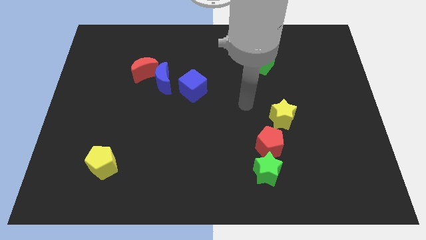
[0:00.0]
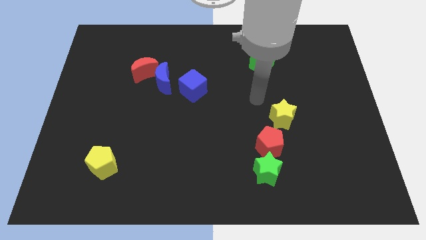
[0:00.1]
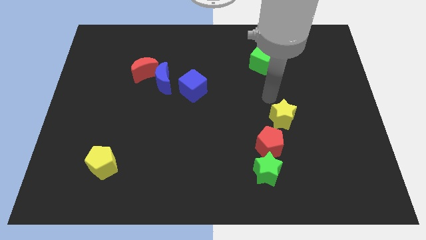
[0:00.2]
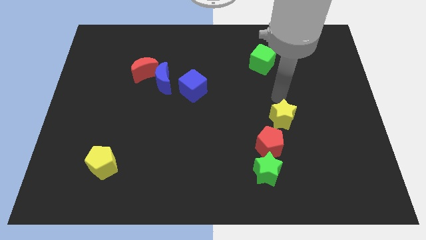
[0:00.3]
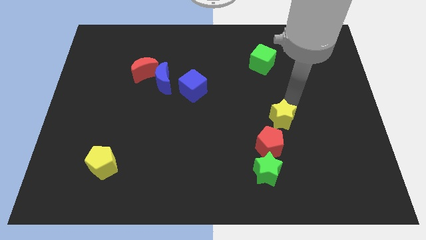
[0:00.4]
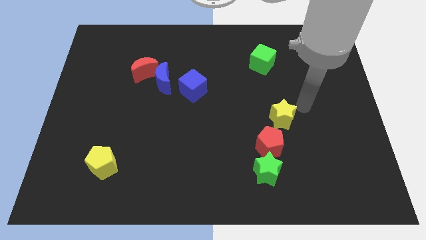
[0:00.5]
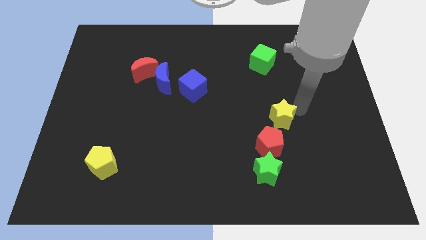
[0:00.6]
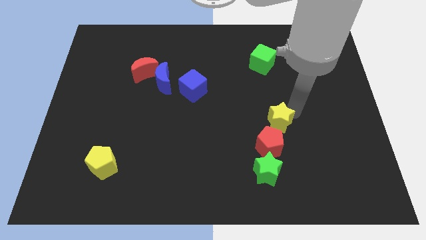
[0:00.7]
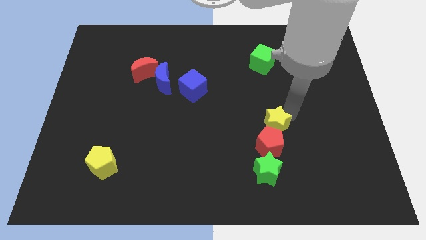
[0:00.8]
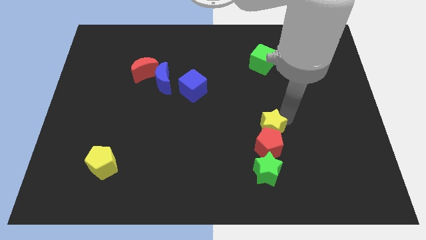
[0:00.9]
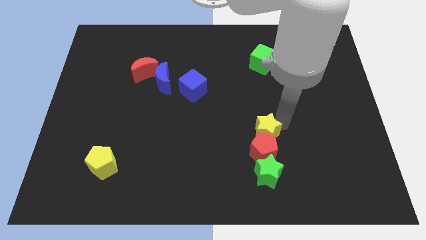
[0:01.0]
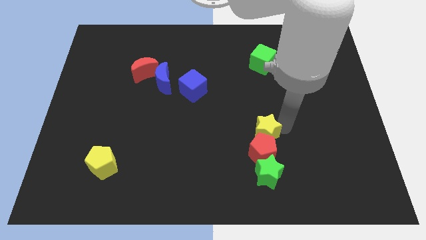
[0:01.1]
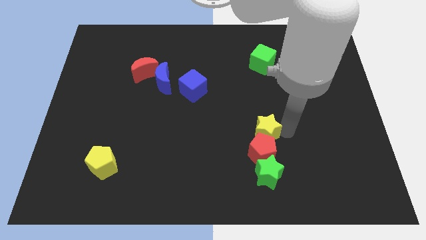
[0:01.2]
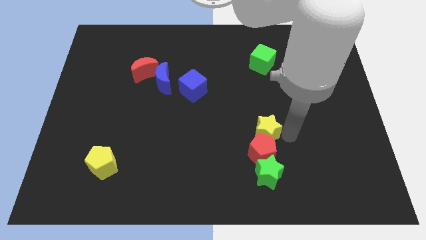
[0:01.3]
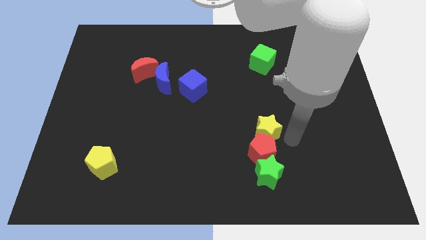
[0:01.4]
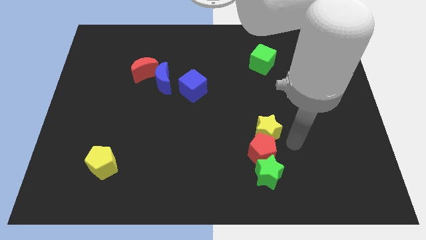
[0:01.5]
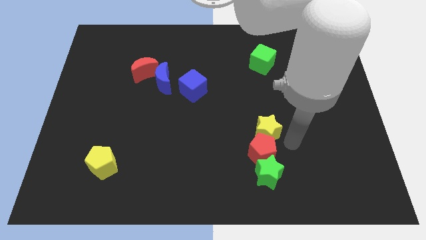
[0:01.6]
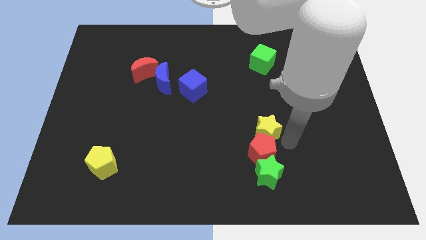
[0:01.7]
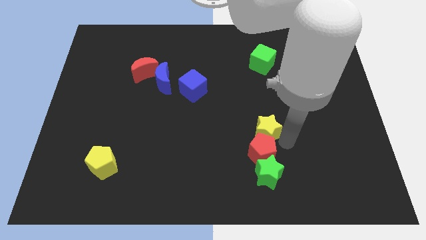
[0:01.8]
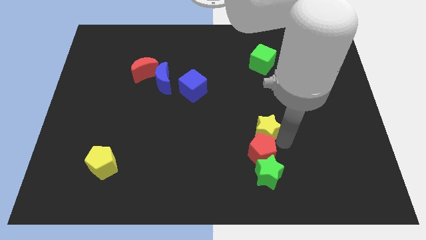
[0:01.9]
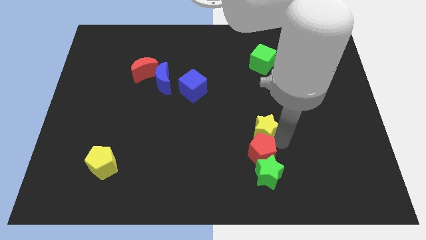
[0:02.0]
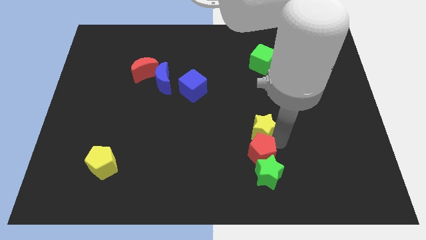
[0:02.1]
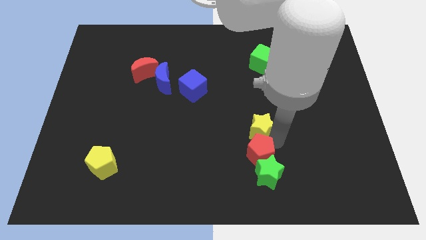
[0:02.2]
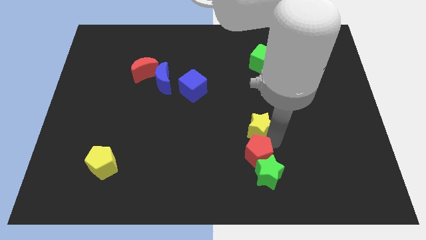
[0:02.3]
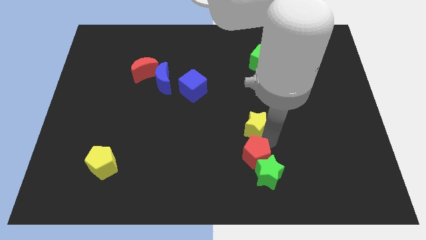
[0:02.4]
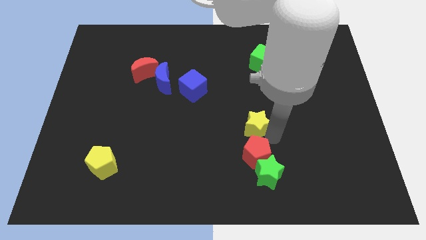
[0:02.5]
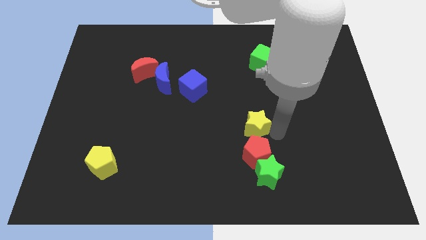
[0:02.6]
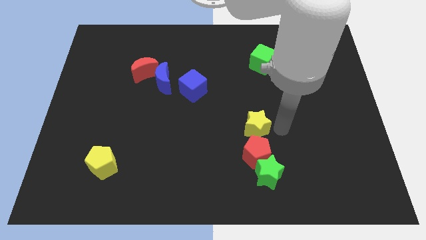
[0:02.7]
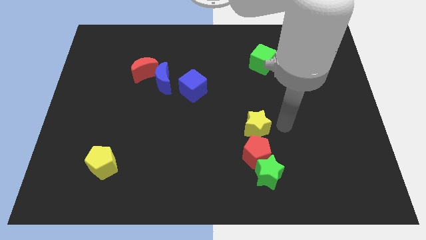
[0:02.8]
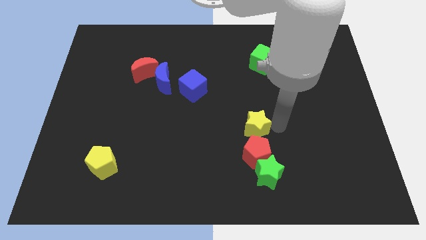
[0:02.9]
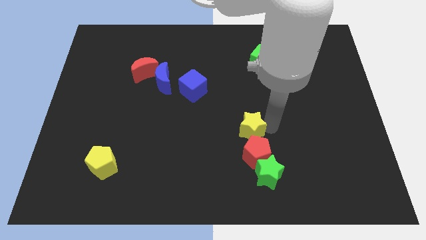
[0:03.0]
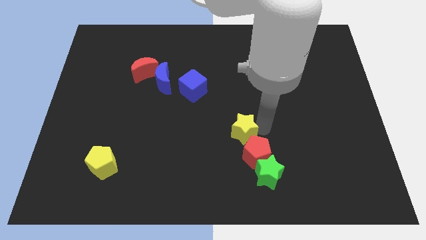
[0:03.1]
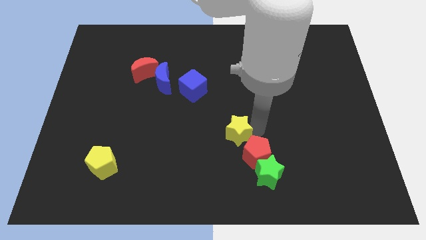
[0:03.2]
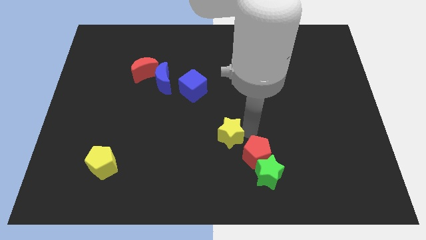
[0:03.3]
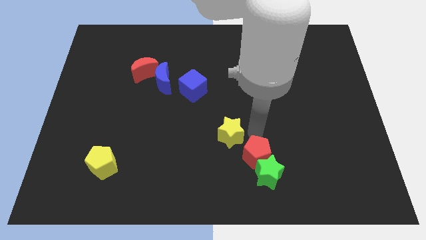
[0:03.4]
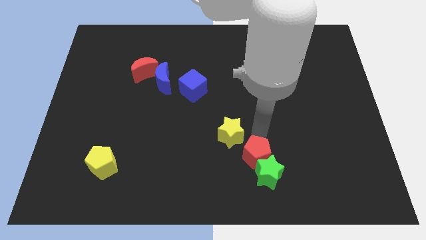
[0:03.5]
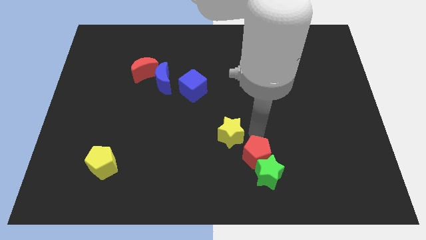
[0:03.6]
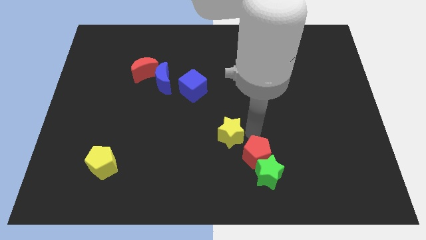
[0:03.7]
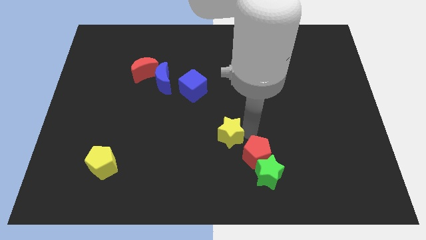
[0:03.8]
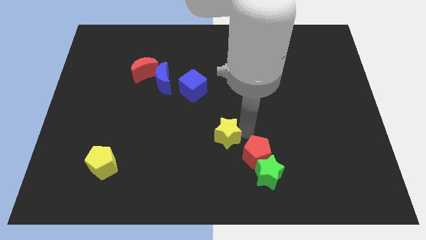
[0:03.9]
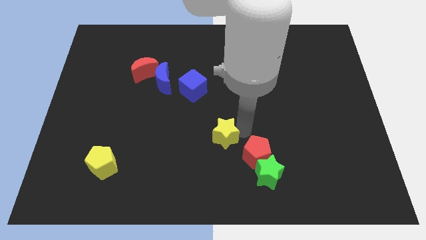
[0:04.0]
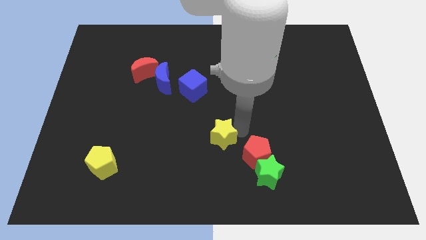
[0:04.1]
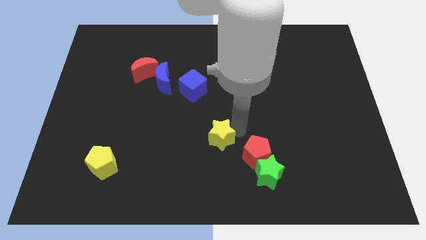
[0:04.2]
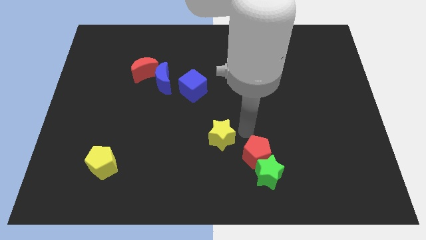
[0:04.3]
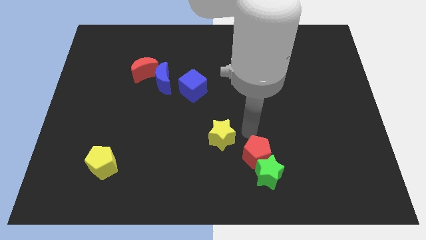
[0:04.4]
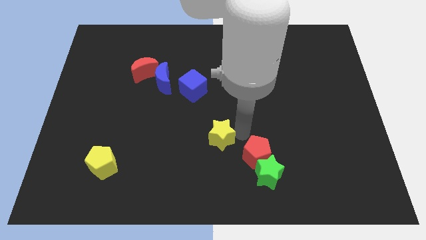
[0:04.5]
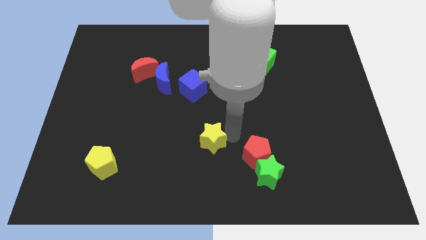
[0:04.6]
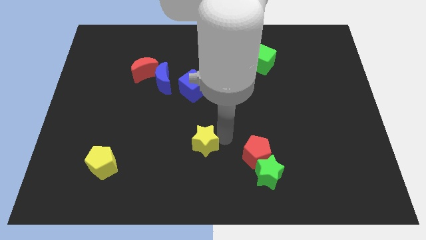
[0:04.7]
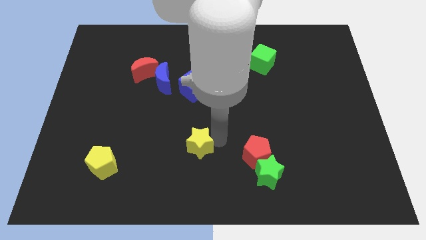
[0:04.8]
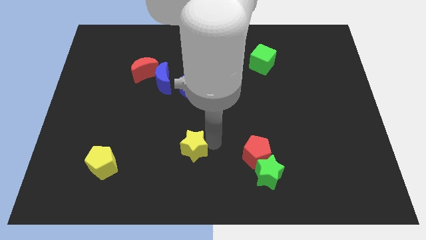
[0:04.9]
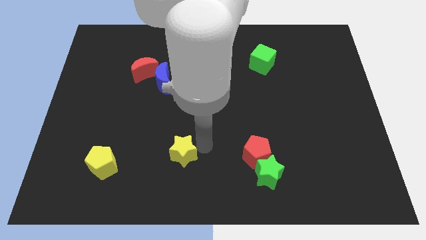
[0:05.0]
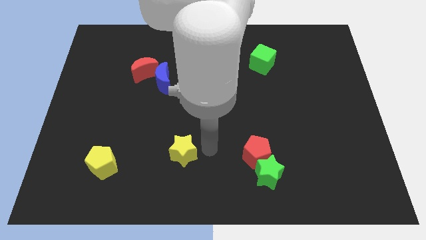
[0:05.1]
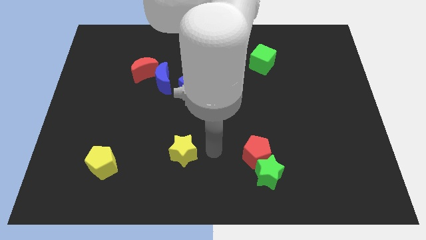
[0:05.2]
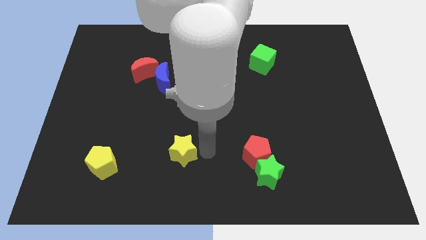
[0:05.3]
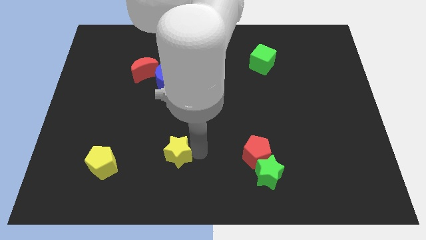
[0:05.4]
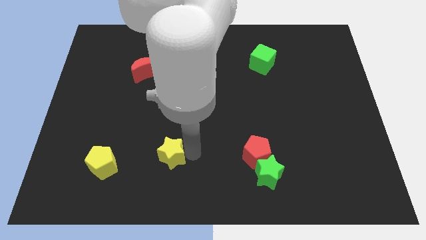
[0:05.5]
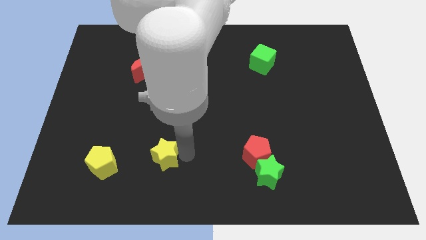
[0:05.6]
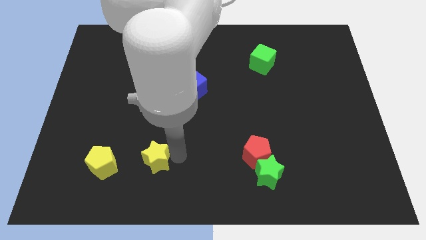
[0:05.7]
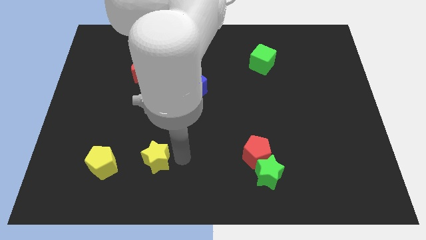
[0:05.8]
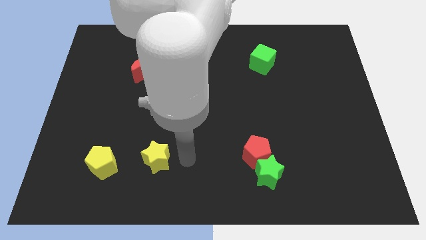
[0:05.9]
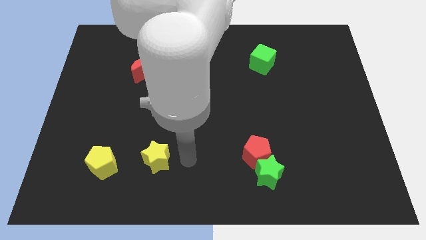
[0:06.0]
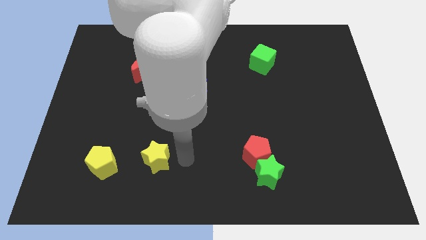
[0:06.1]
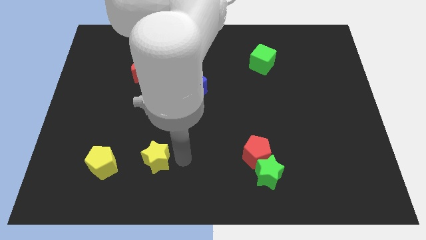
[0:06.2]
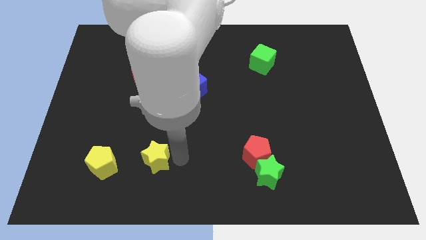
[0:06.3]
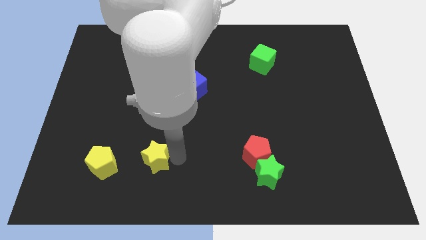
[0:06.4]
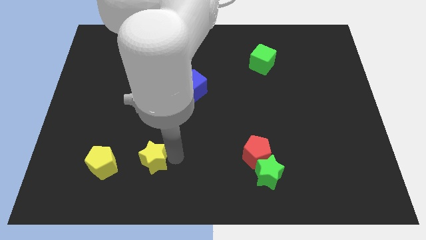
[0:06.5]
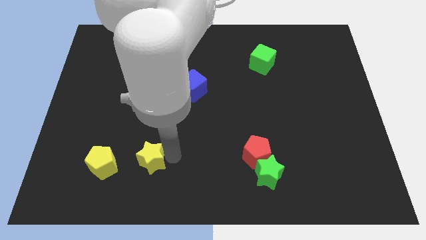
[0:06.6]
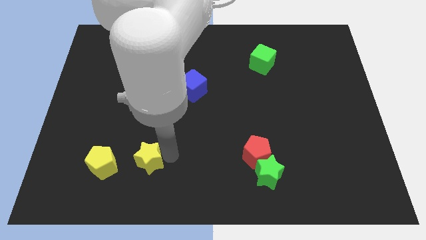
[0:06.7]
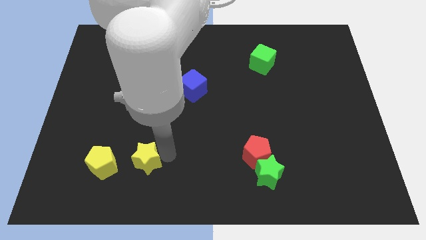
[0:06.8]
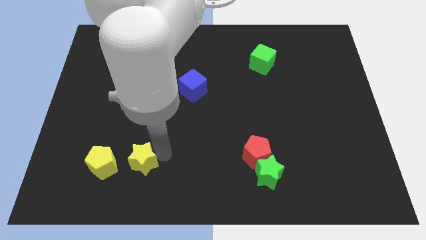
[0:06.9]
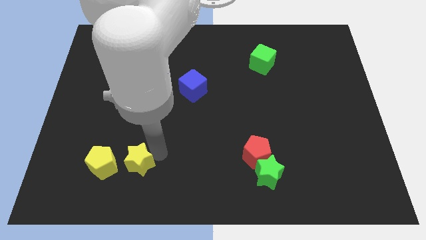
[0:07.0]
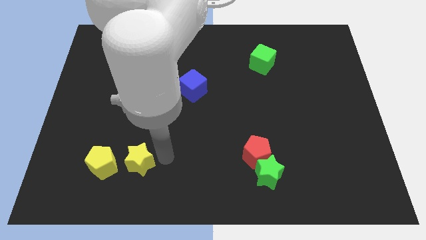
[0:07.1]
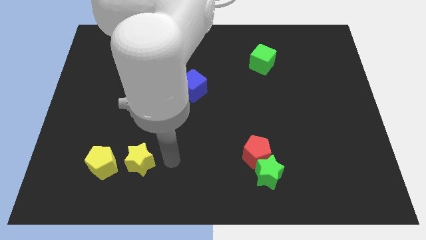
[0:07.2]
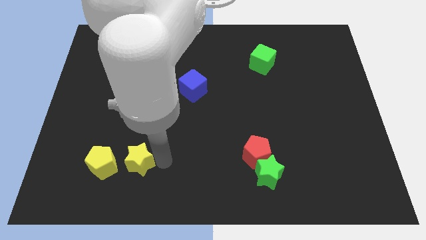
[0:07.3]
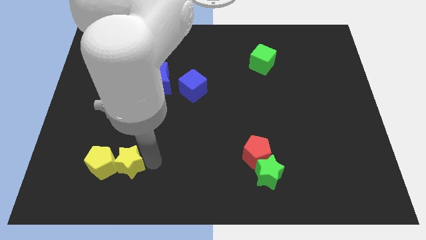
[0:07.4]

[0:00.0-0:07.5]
put the yellow star towards the yellow pentagon

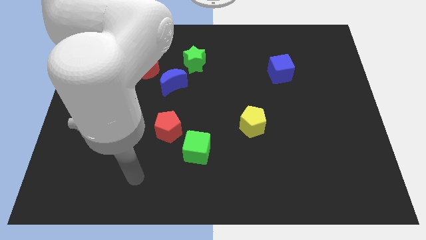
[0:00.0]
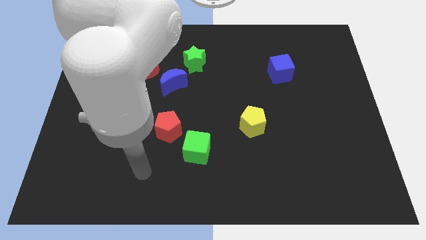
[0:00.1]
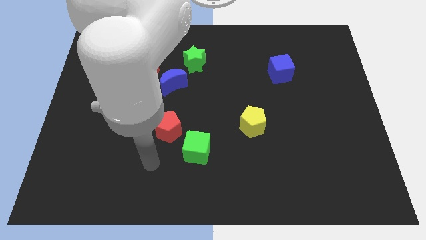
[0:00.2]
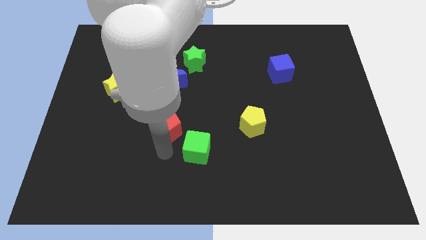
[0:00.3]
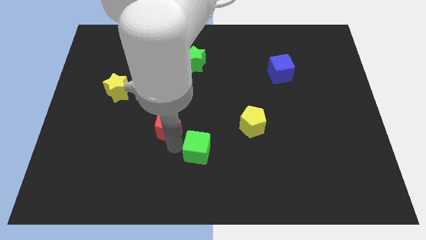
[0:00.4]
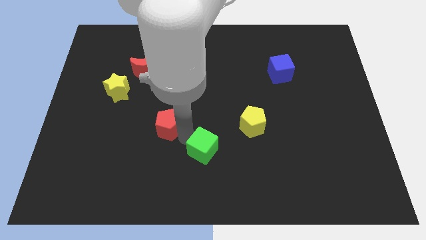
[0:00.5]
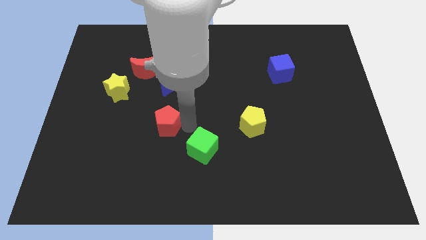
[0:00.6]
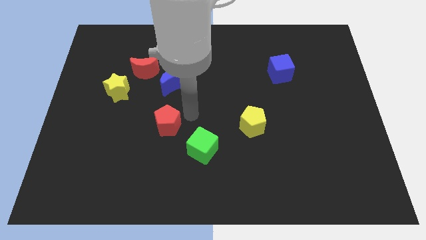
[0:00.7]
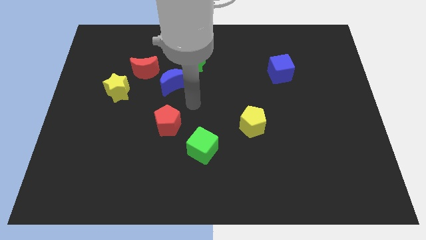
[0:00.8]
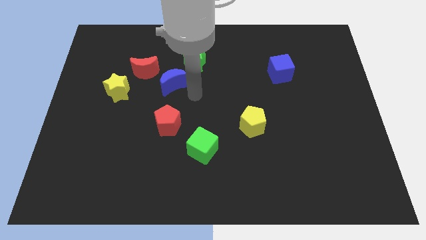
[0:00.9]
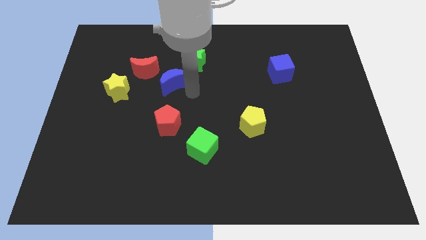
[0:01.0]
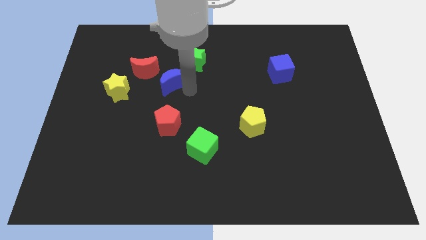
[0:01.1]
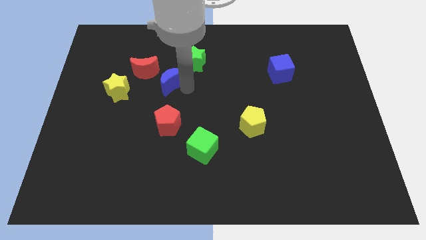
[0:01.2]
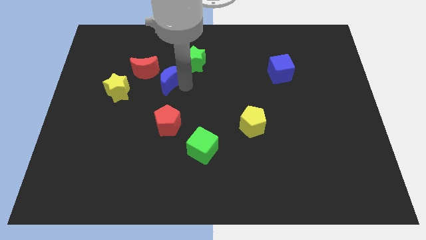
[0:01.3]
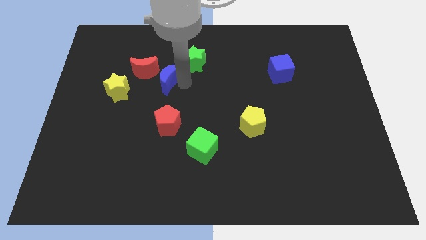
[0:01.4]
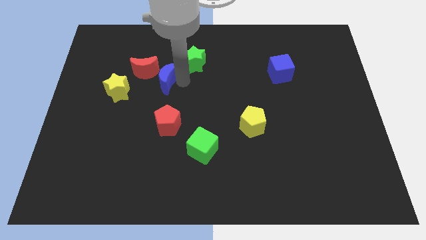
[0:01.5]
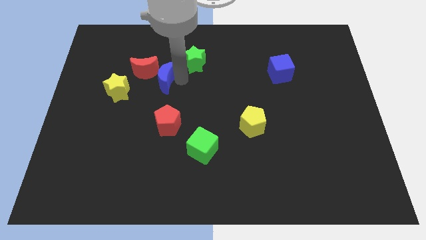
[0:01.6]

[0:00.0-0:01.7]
put the blue moon close to the red moon
